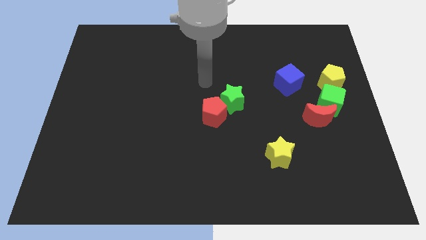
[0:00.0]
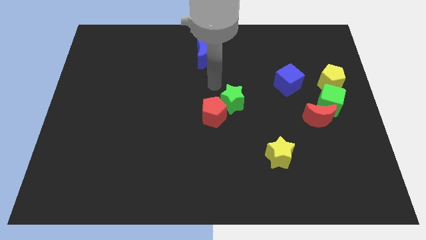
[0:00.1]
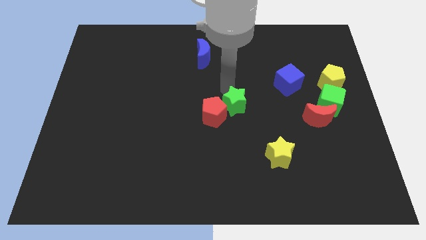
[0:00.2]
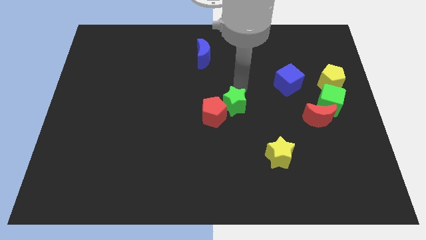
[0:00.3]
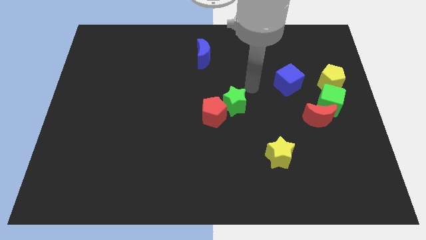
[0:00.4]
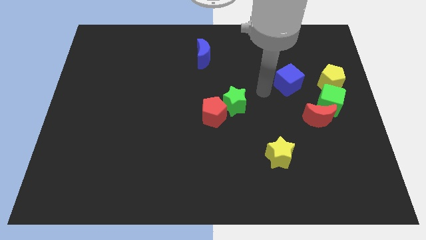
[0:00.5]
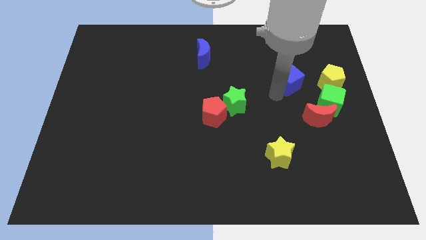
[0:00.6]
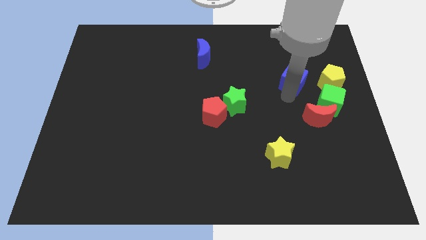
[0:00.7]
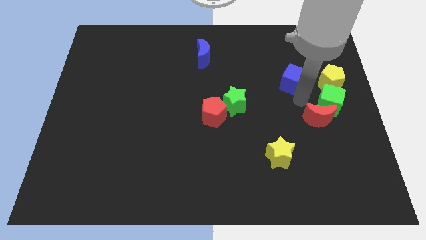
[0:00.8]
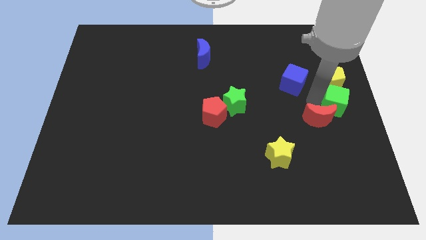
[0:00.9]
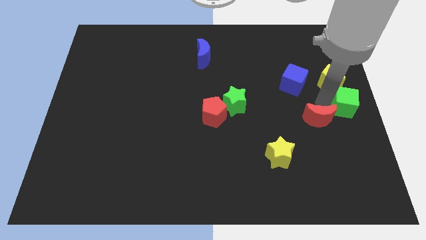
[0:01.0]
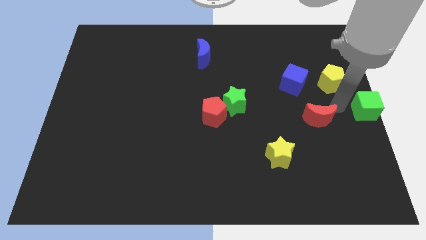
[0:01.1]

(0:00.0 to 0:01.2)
pull the red moon apart from the green cube

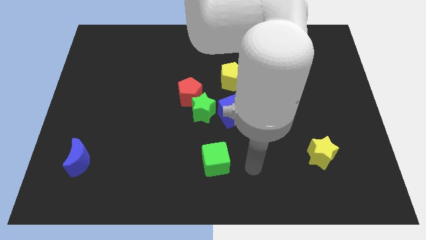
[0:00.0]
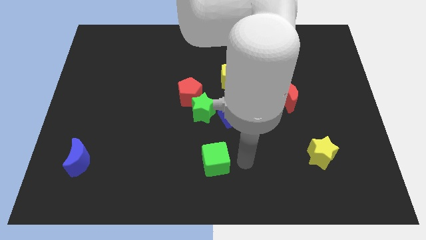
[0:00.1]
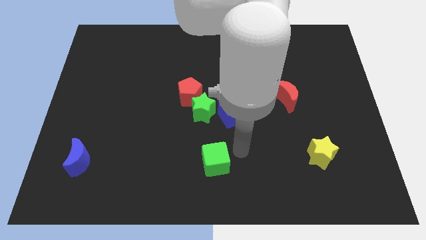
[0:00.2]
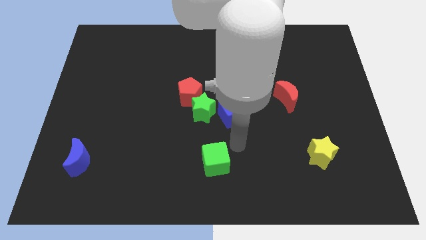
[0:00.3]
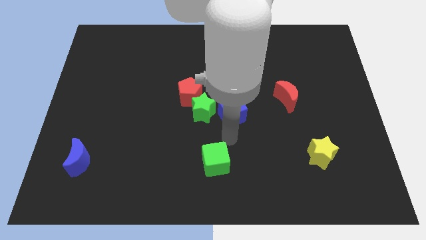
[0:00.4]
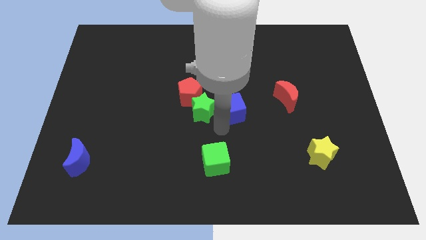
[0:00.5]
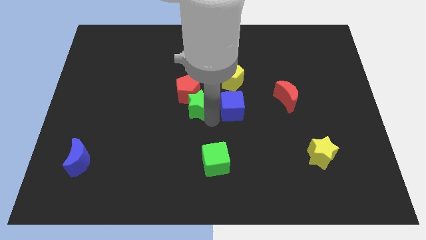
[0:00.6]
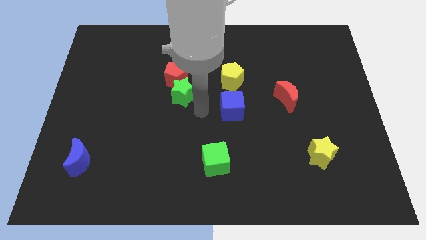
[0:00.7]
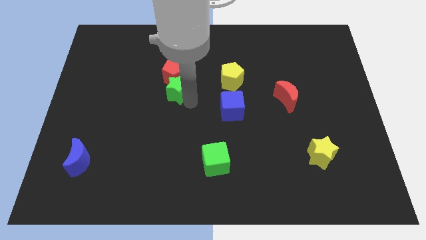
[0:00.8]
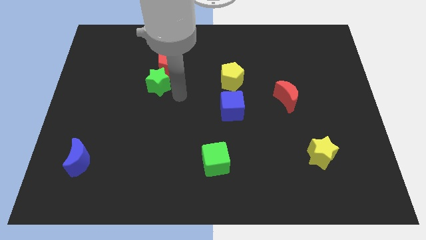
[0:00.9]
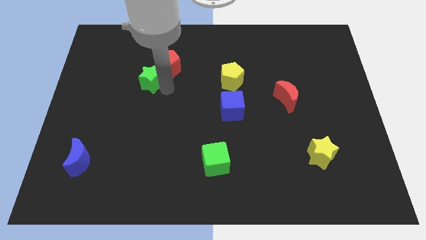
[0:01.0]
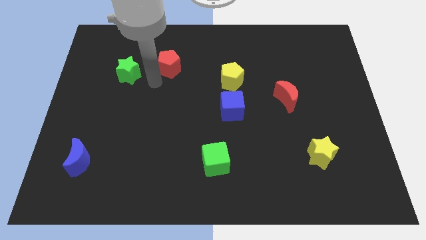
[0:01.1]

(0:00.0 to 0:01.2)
move the red pentagon away from the green star

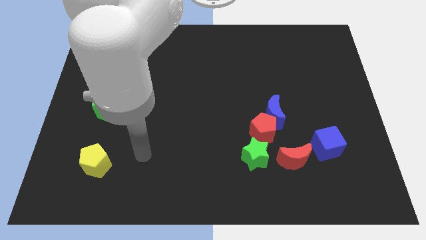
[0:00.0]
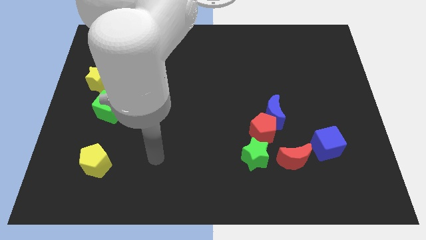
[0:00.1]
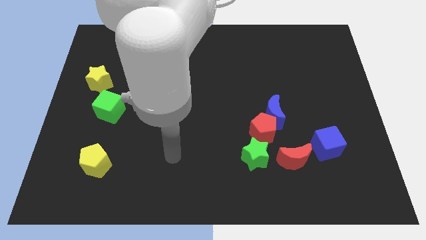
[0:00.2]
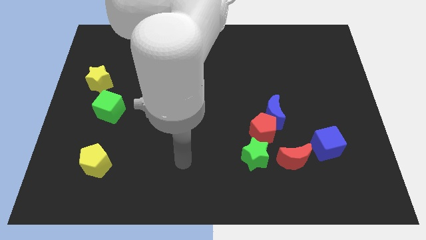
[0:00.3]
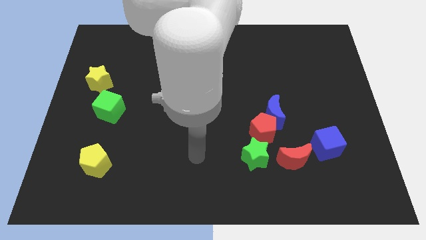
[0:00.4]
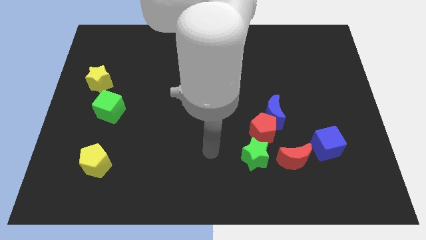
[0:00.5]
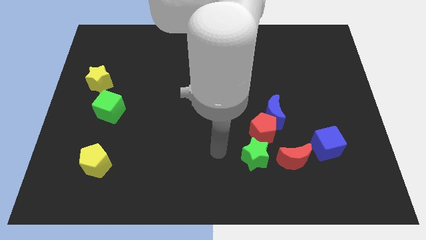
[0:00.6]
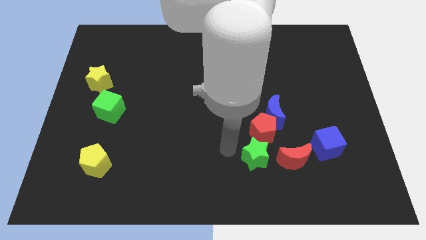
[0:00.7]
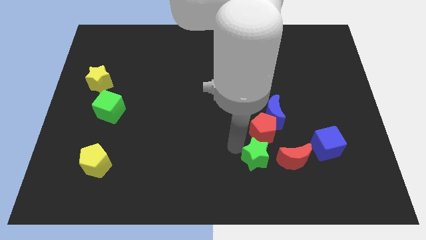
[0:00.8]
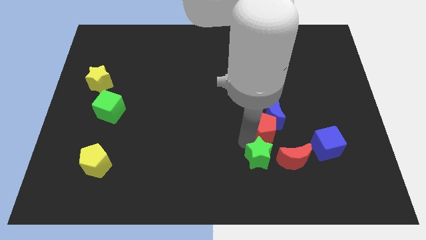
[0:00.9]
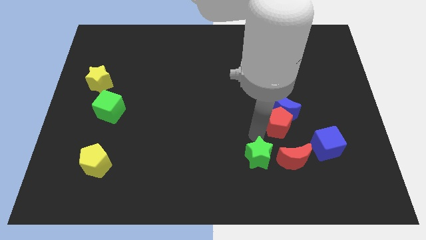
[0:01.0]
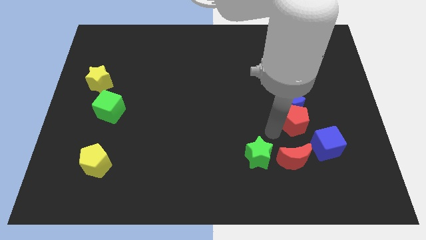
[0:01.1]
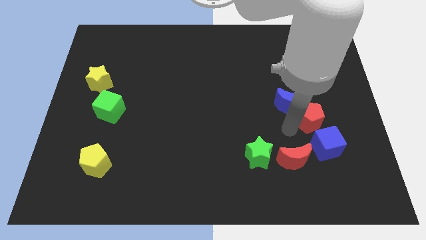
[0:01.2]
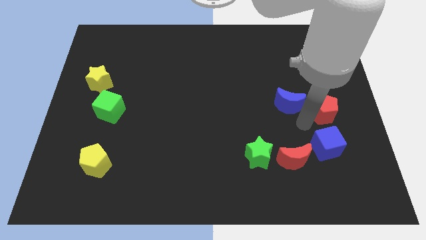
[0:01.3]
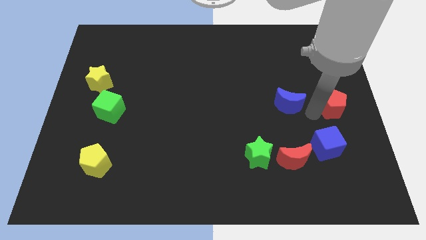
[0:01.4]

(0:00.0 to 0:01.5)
pull the blue moon apart from the red pentagon

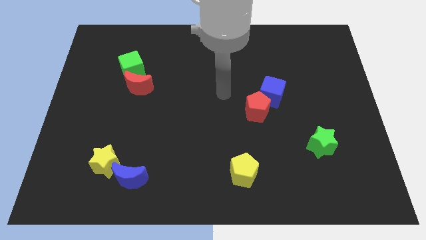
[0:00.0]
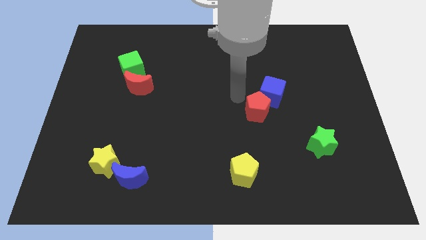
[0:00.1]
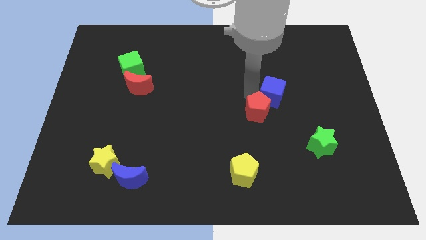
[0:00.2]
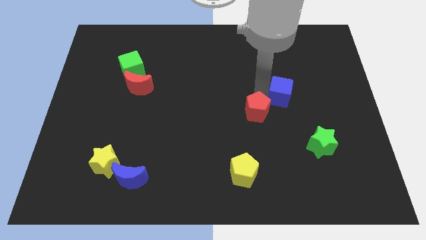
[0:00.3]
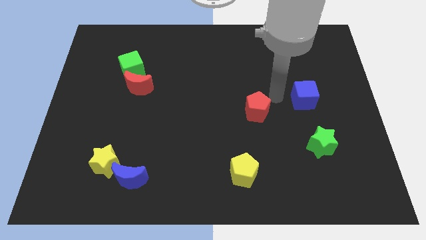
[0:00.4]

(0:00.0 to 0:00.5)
pull the red pentagon apart from the blue cube

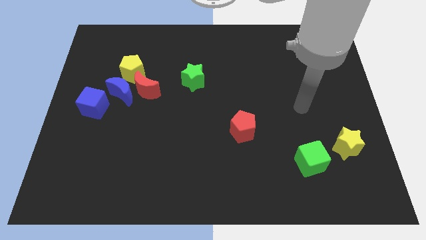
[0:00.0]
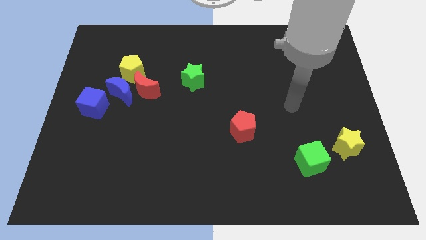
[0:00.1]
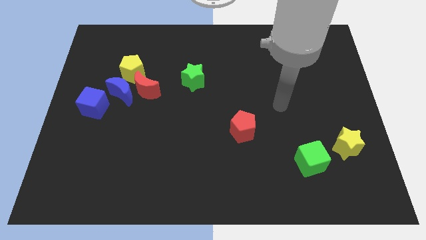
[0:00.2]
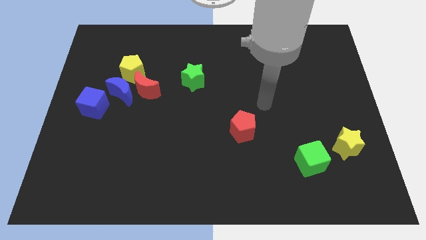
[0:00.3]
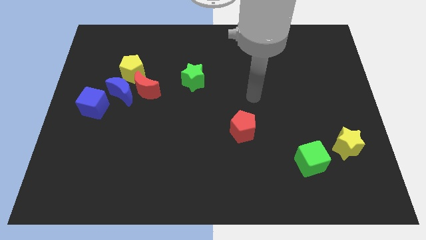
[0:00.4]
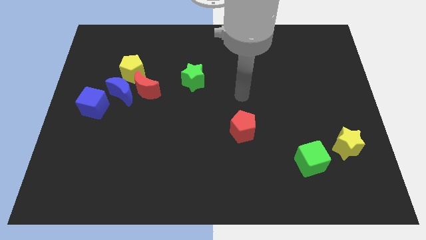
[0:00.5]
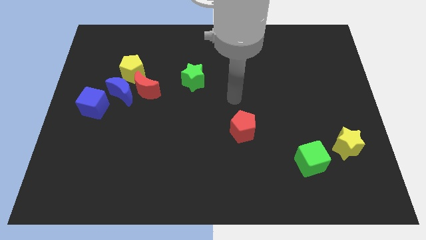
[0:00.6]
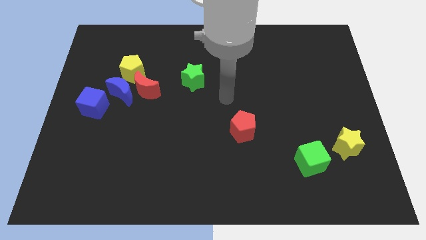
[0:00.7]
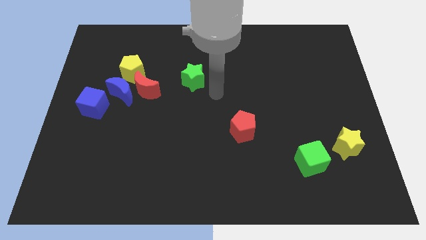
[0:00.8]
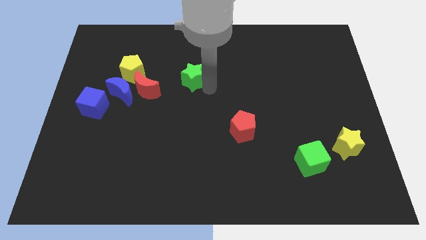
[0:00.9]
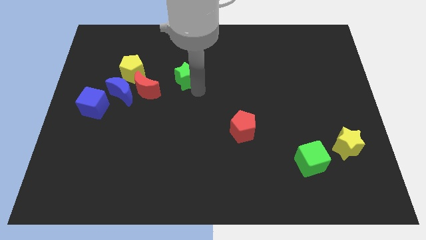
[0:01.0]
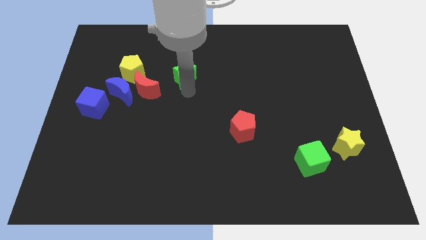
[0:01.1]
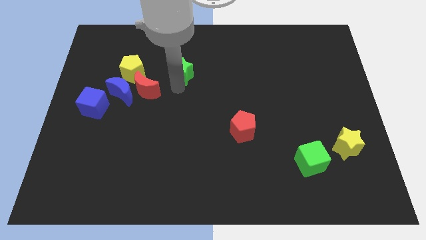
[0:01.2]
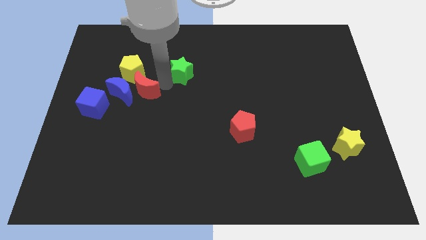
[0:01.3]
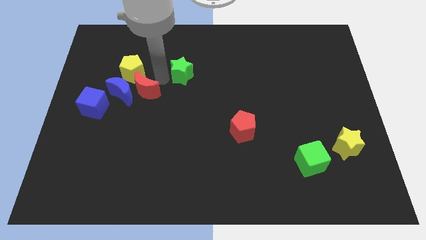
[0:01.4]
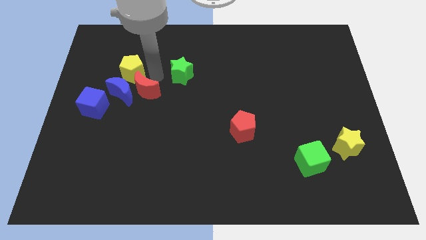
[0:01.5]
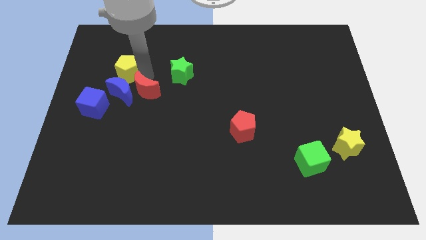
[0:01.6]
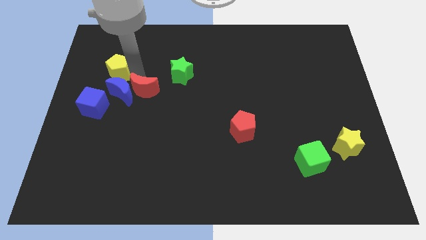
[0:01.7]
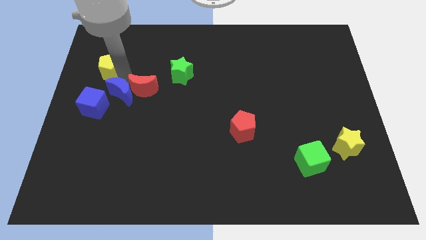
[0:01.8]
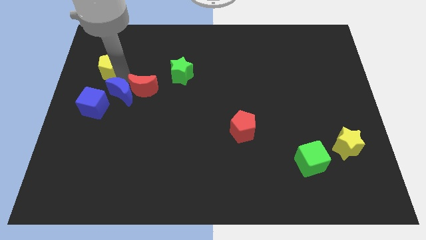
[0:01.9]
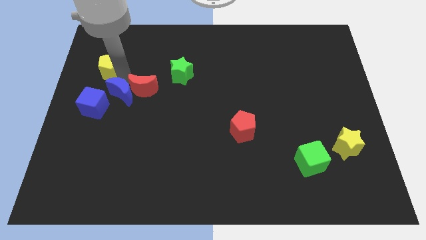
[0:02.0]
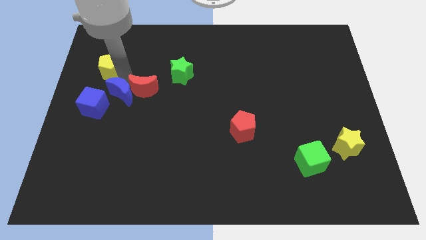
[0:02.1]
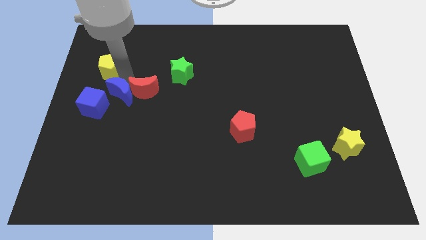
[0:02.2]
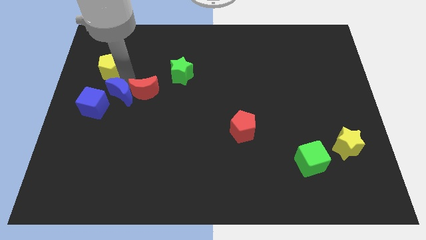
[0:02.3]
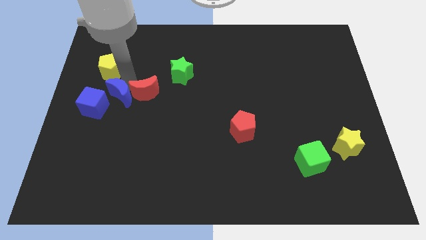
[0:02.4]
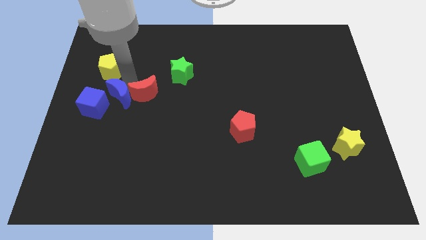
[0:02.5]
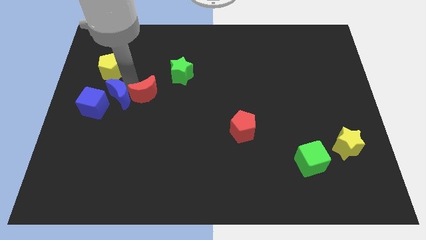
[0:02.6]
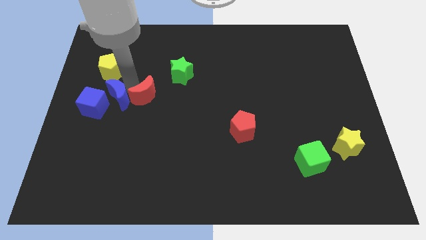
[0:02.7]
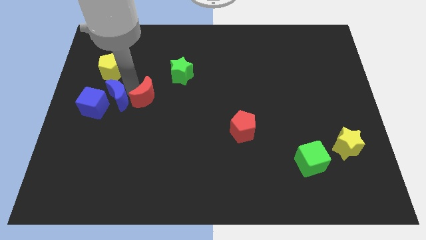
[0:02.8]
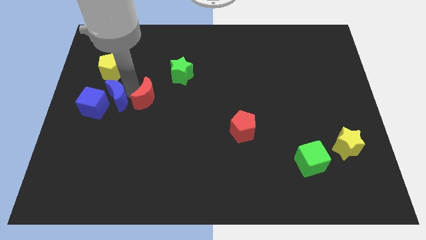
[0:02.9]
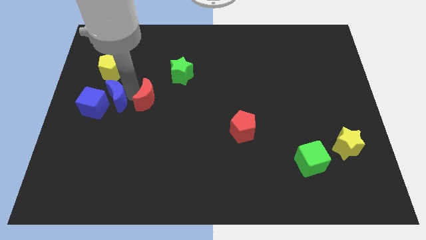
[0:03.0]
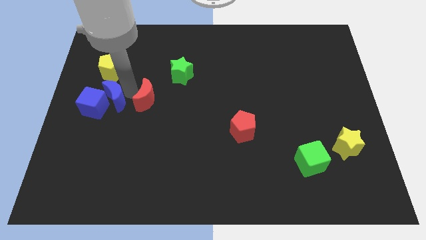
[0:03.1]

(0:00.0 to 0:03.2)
pull the red moon apart from the blue moon and yellow pentagon

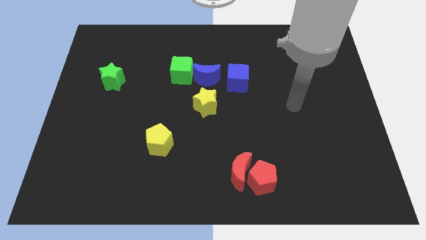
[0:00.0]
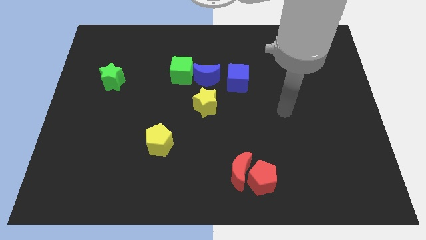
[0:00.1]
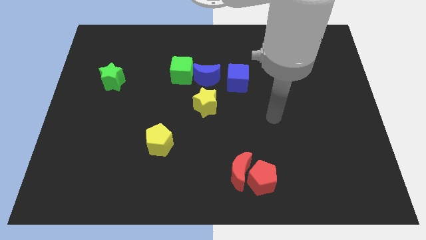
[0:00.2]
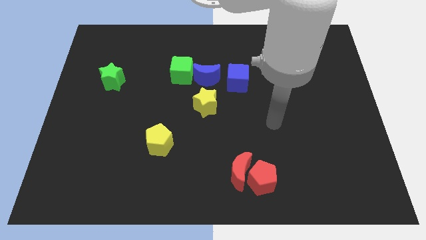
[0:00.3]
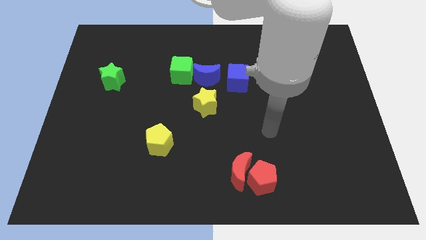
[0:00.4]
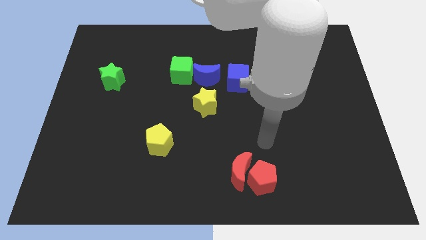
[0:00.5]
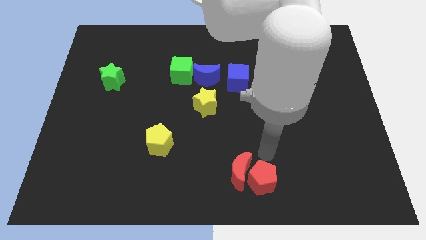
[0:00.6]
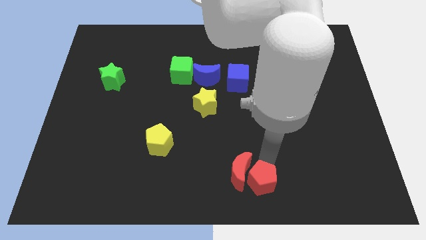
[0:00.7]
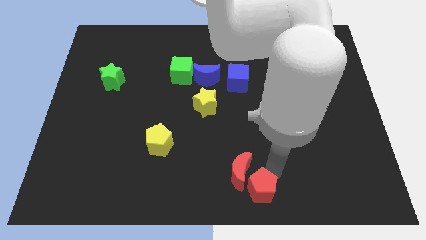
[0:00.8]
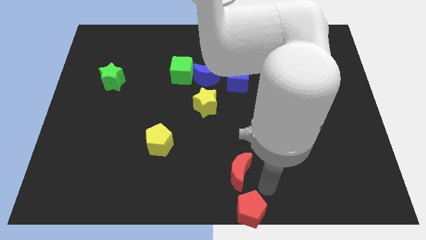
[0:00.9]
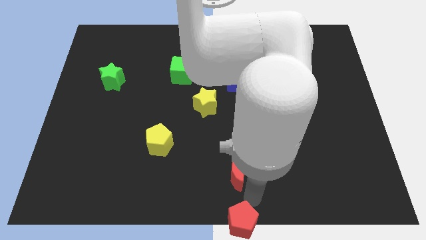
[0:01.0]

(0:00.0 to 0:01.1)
pull the red moon apart from the red pentagon

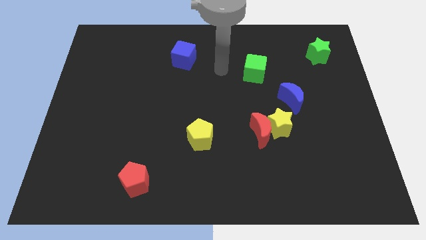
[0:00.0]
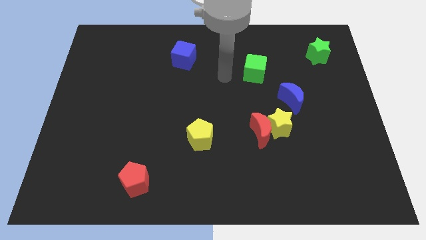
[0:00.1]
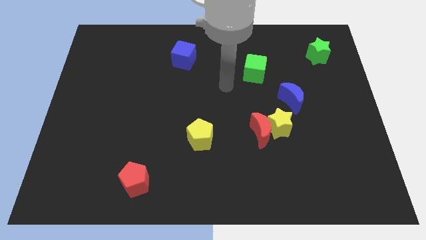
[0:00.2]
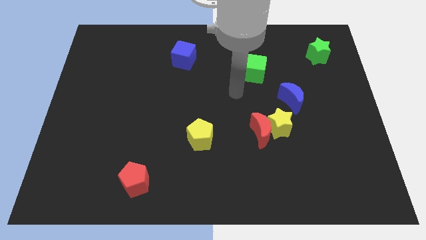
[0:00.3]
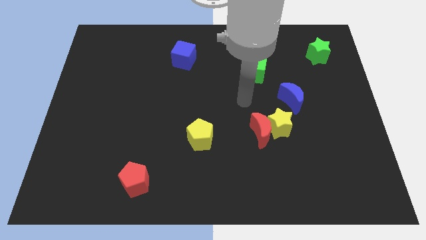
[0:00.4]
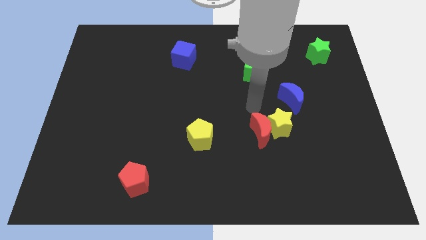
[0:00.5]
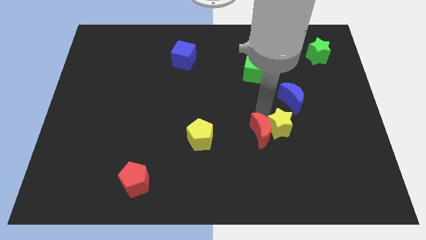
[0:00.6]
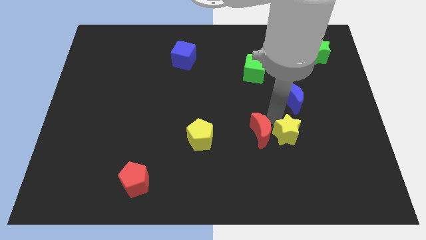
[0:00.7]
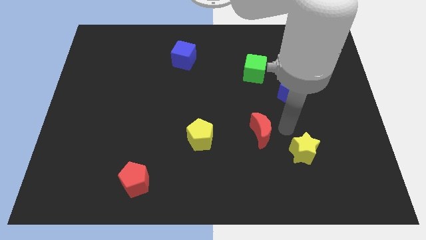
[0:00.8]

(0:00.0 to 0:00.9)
pull the red moon apart from the yellow star
